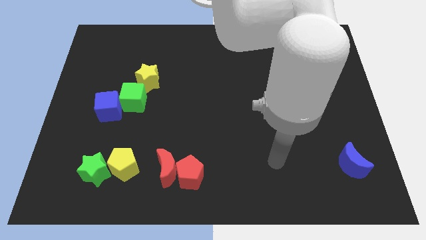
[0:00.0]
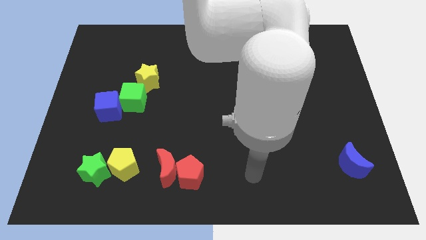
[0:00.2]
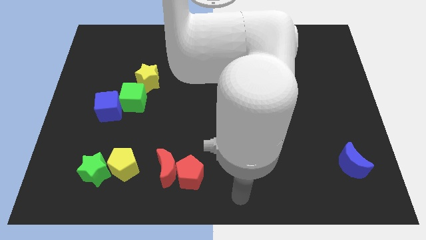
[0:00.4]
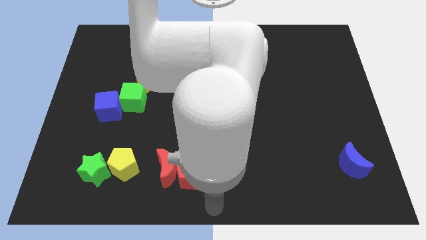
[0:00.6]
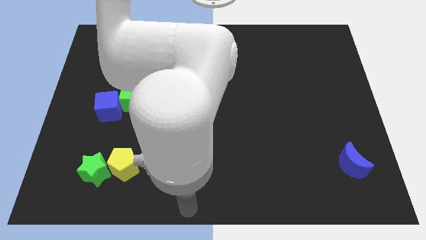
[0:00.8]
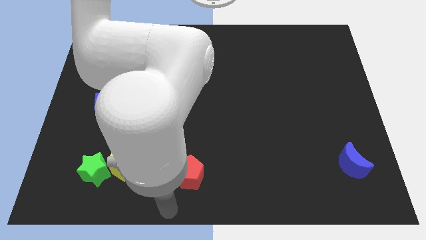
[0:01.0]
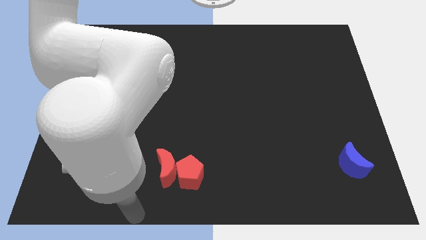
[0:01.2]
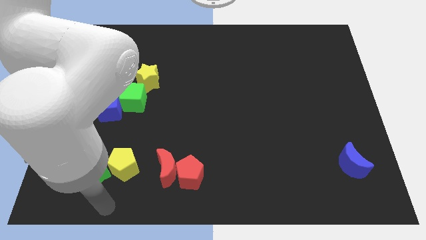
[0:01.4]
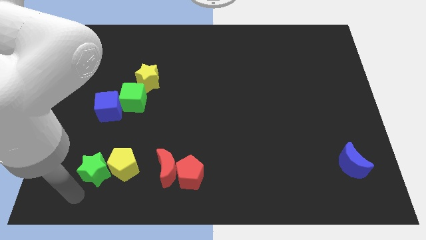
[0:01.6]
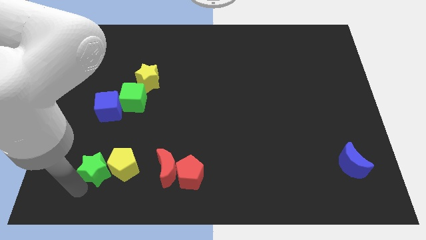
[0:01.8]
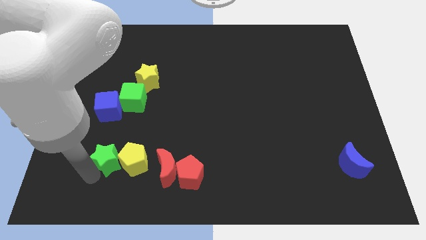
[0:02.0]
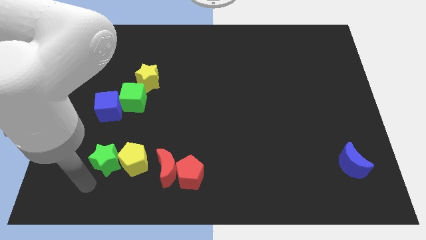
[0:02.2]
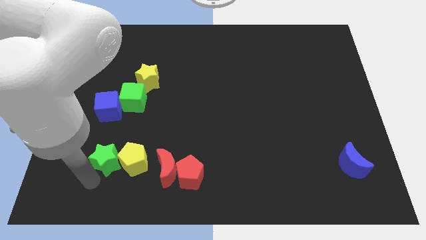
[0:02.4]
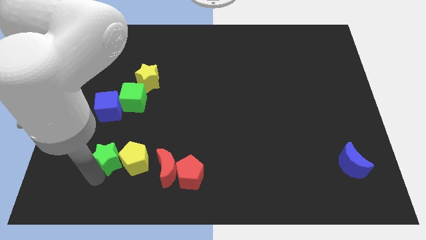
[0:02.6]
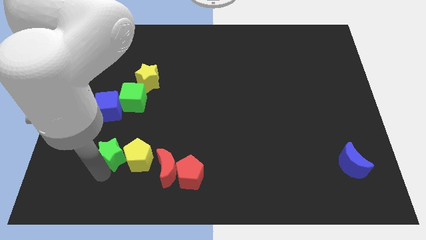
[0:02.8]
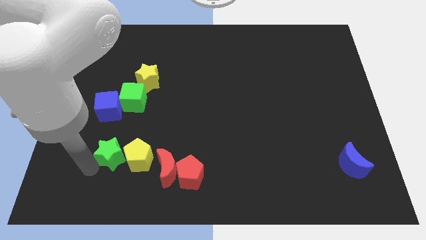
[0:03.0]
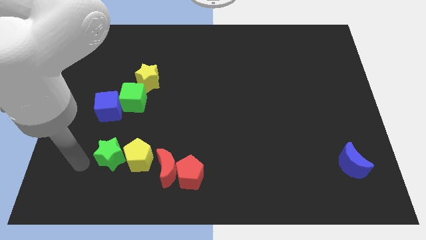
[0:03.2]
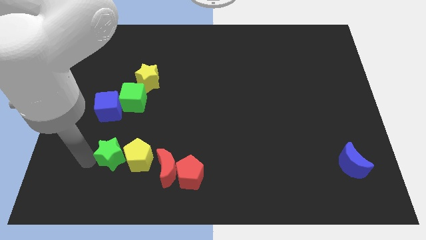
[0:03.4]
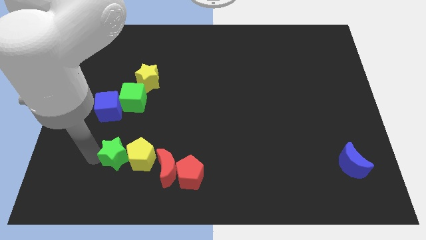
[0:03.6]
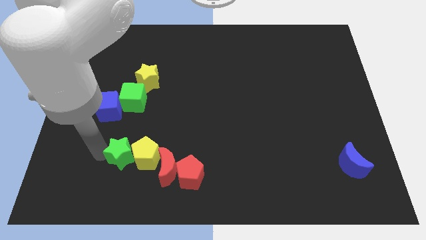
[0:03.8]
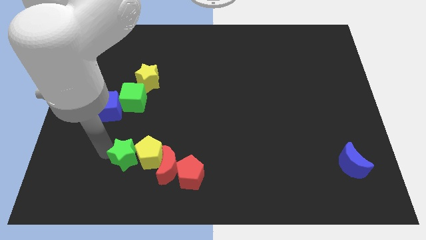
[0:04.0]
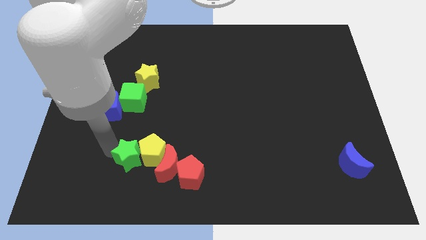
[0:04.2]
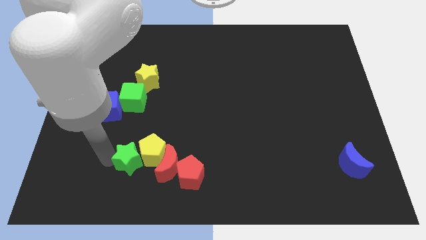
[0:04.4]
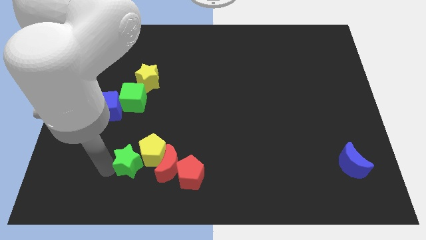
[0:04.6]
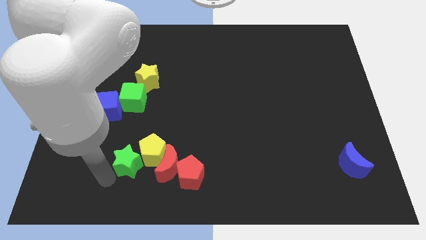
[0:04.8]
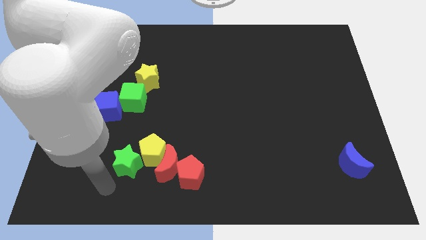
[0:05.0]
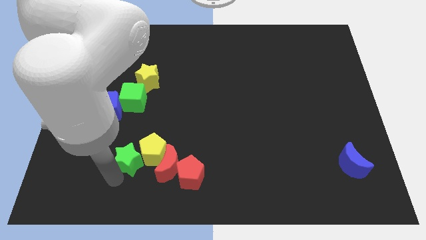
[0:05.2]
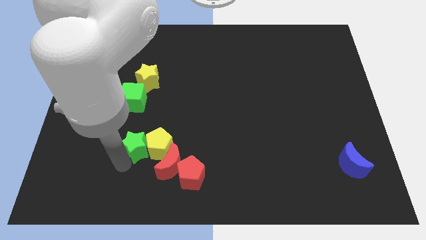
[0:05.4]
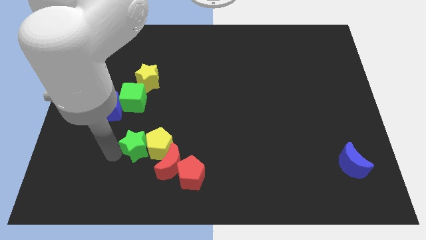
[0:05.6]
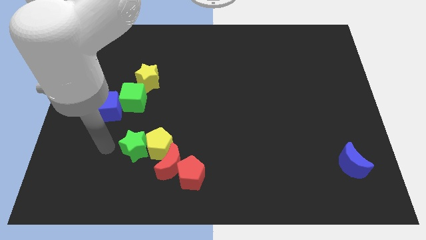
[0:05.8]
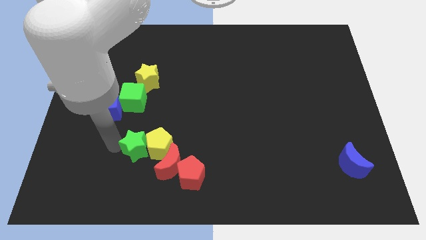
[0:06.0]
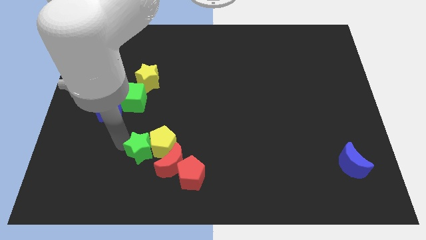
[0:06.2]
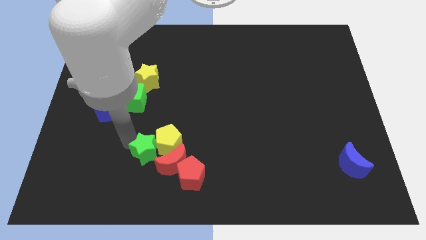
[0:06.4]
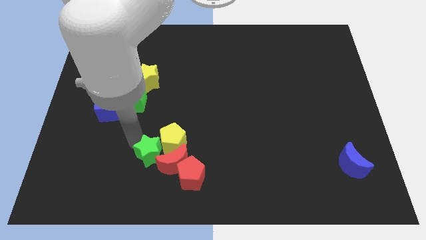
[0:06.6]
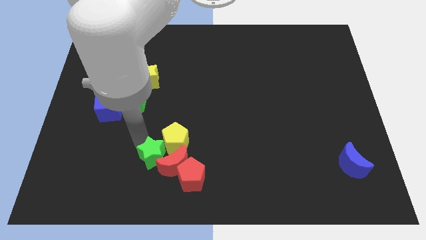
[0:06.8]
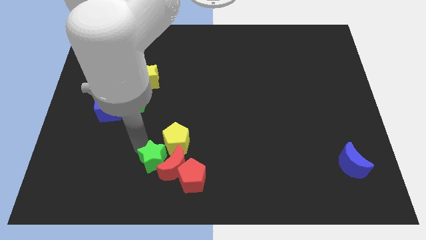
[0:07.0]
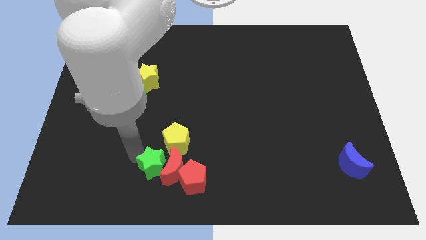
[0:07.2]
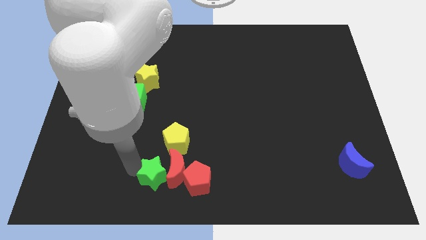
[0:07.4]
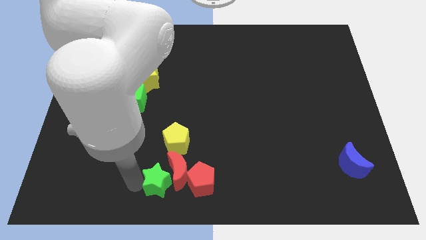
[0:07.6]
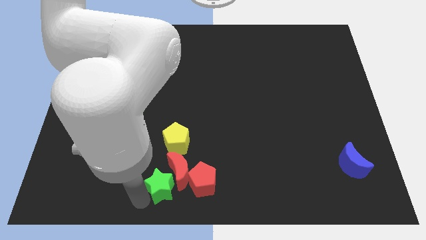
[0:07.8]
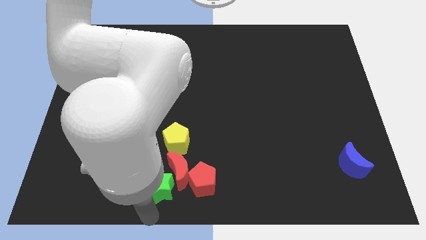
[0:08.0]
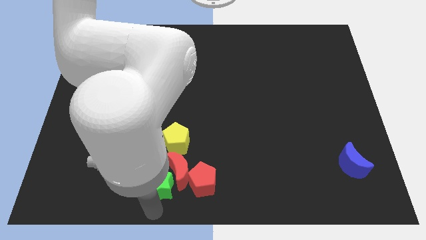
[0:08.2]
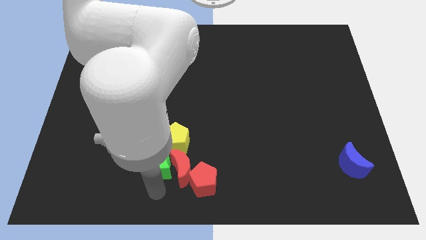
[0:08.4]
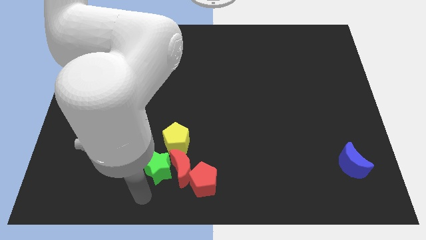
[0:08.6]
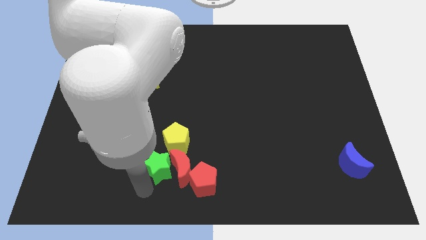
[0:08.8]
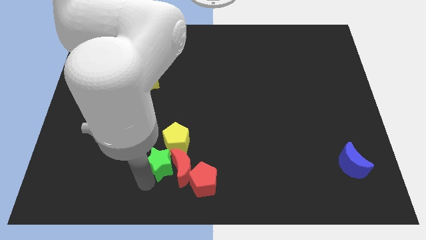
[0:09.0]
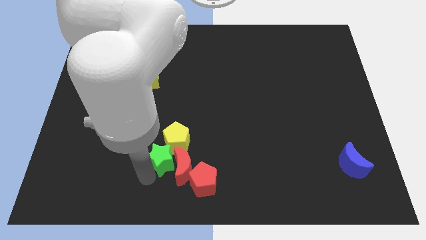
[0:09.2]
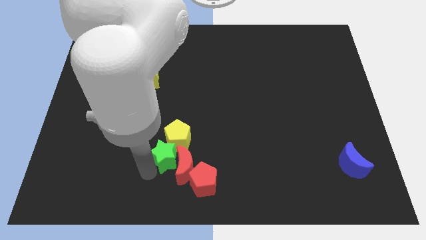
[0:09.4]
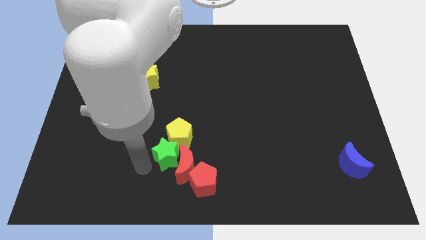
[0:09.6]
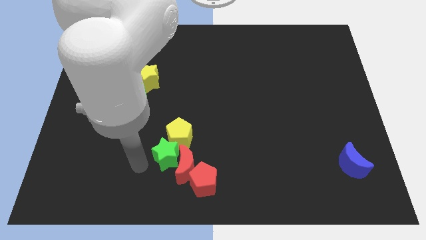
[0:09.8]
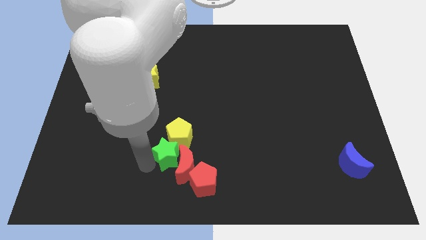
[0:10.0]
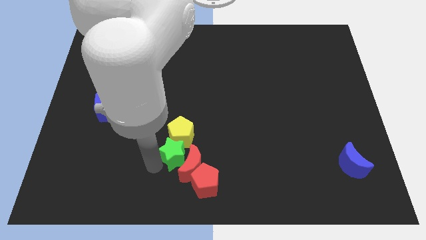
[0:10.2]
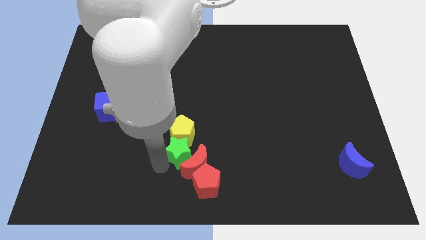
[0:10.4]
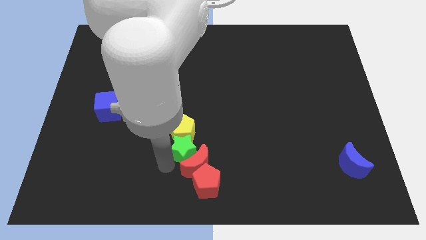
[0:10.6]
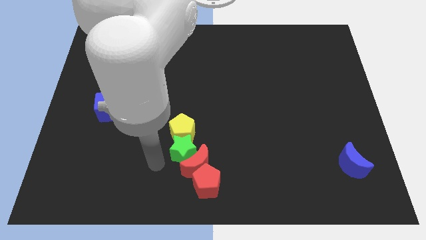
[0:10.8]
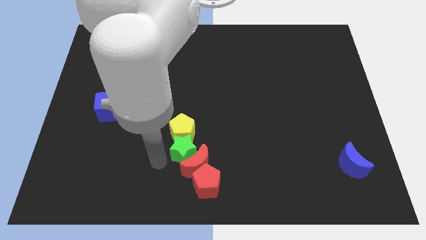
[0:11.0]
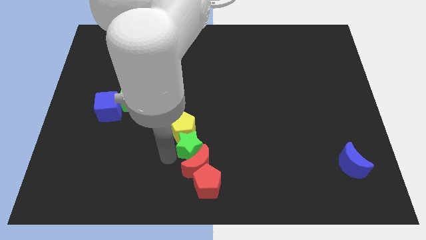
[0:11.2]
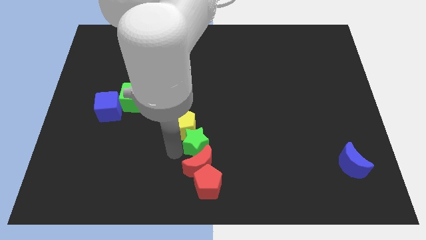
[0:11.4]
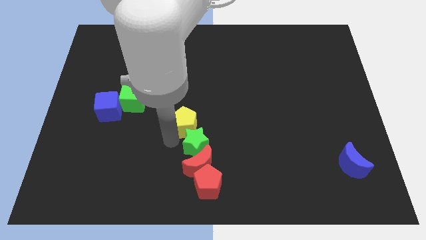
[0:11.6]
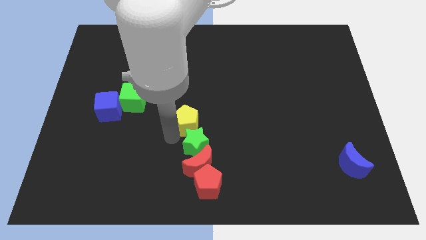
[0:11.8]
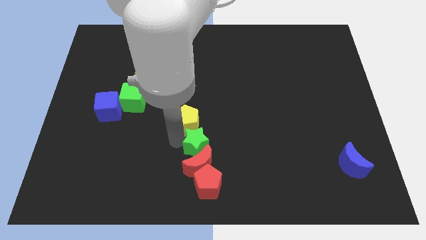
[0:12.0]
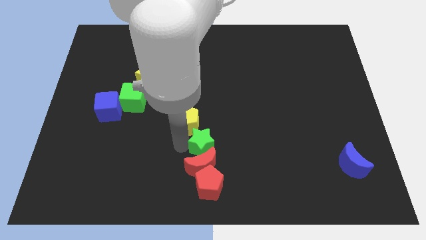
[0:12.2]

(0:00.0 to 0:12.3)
move the green star right

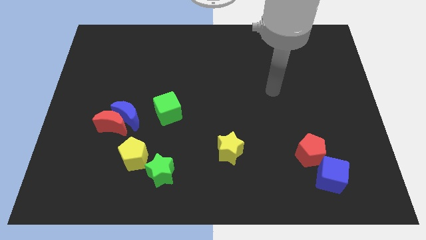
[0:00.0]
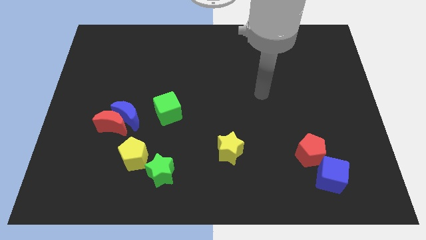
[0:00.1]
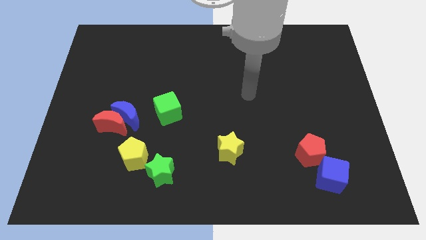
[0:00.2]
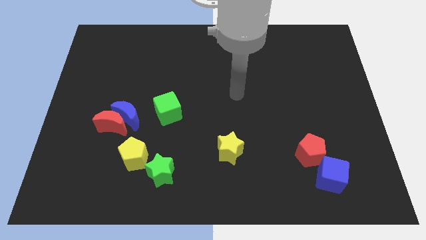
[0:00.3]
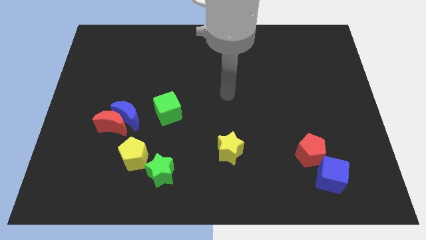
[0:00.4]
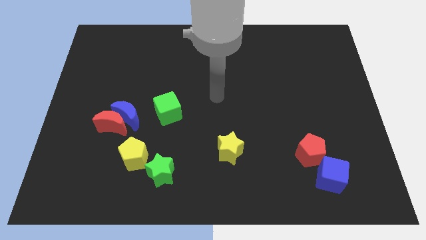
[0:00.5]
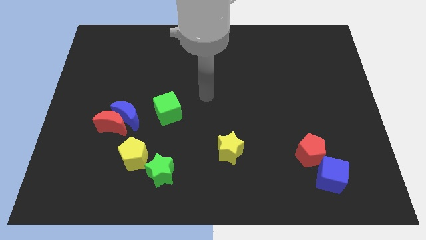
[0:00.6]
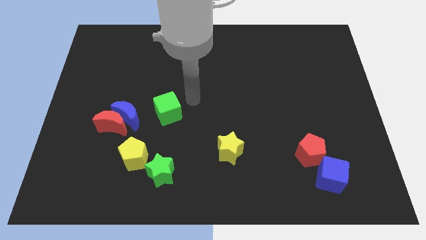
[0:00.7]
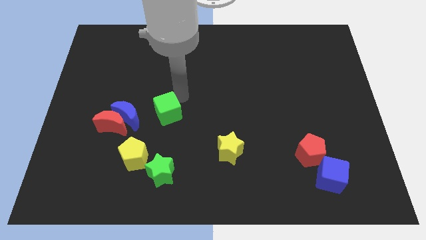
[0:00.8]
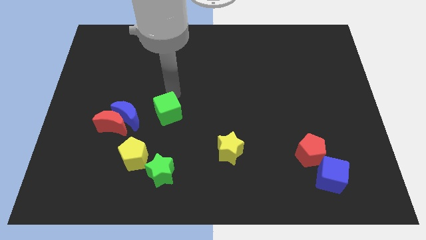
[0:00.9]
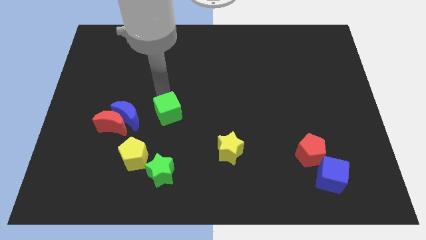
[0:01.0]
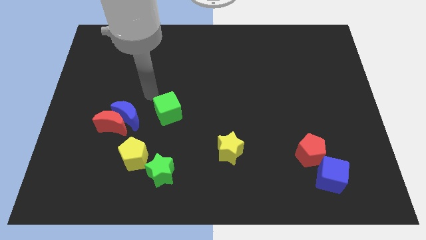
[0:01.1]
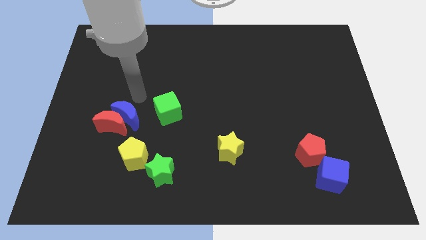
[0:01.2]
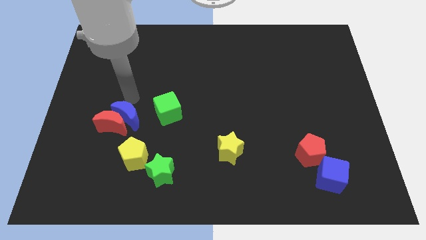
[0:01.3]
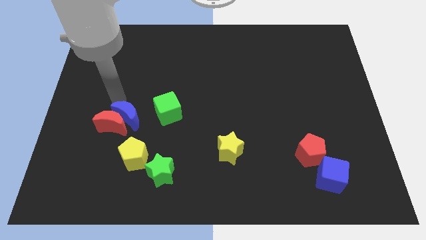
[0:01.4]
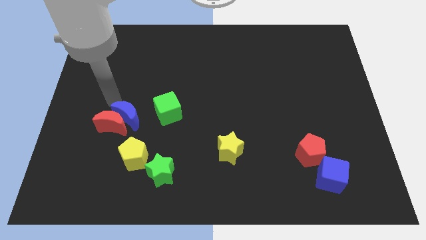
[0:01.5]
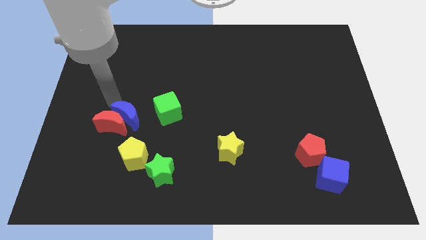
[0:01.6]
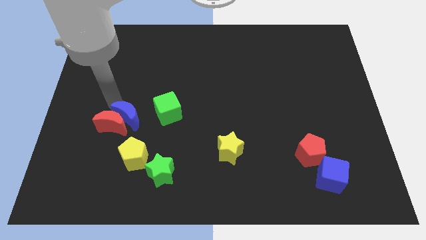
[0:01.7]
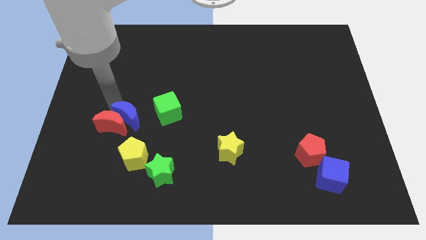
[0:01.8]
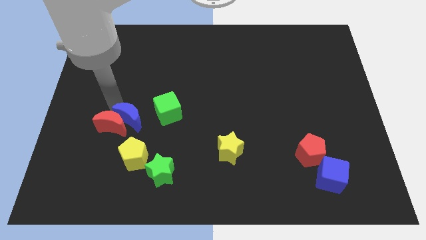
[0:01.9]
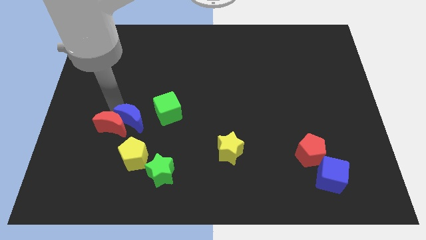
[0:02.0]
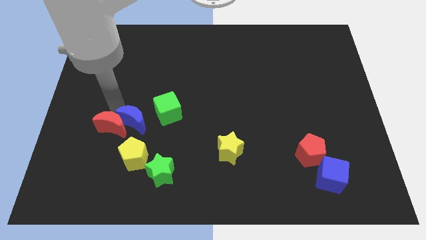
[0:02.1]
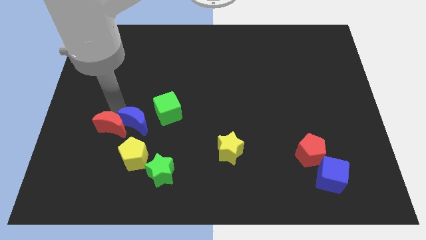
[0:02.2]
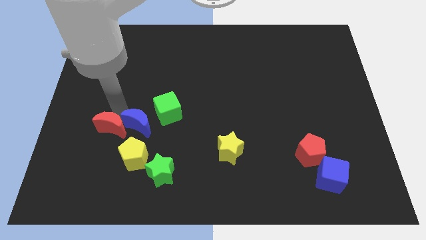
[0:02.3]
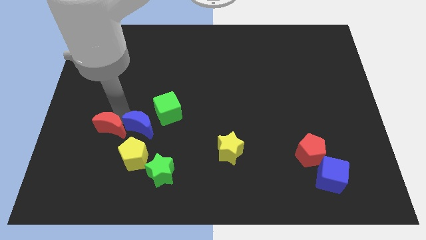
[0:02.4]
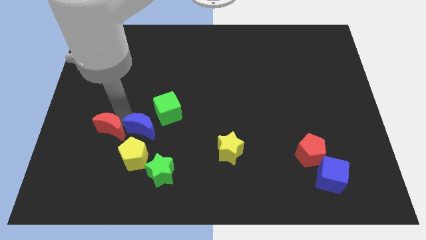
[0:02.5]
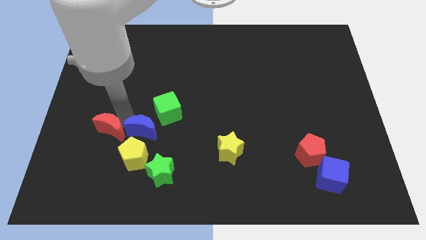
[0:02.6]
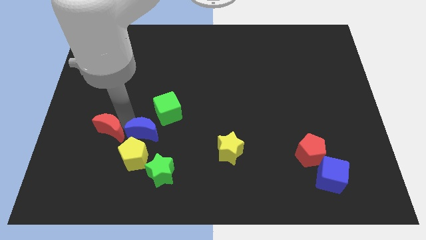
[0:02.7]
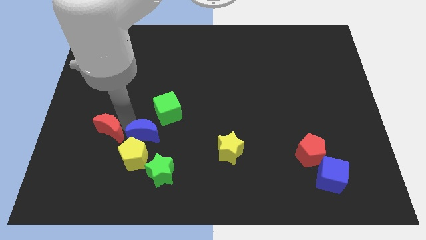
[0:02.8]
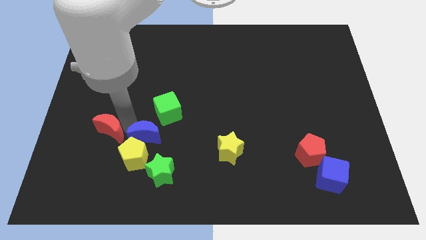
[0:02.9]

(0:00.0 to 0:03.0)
move the blue moon down and right somewhat
